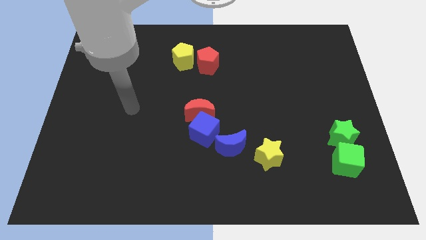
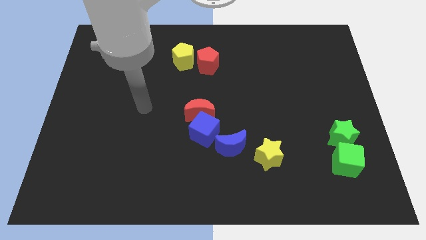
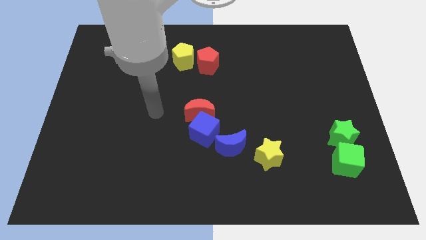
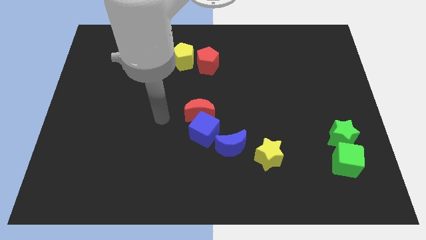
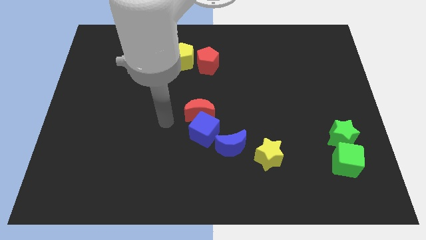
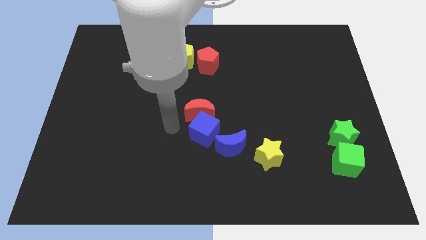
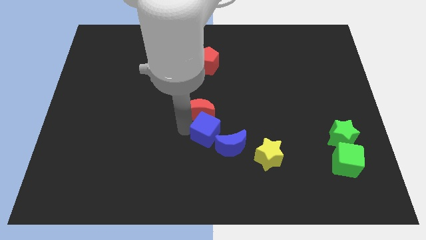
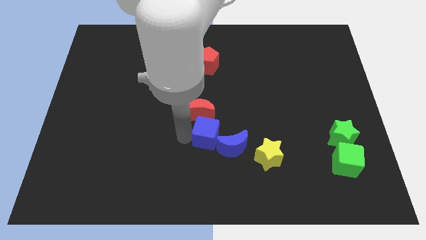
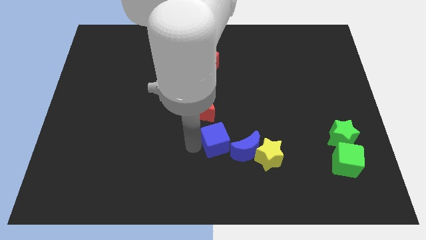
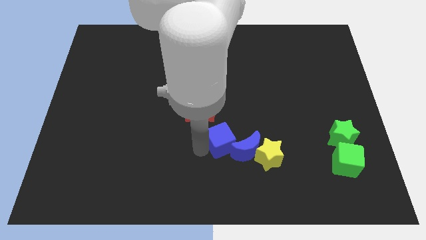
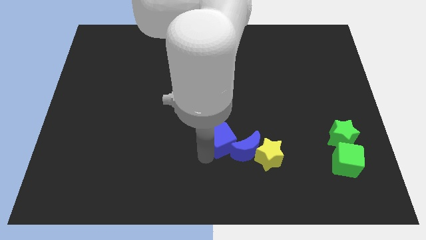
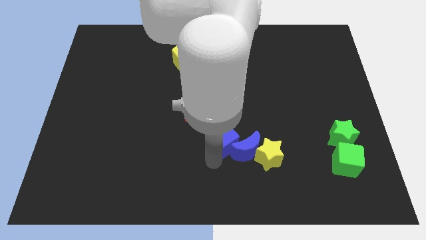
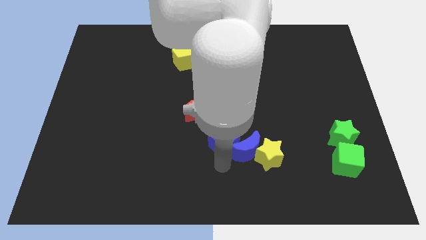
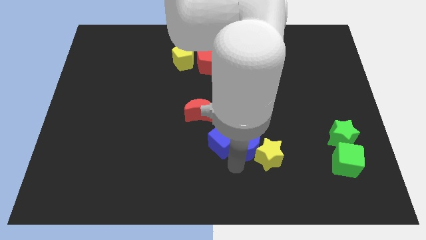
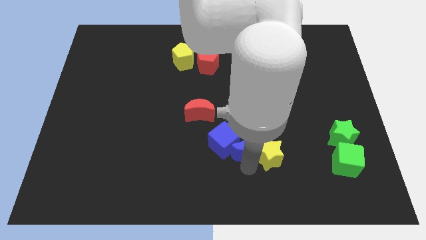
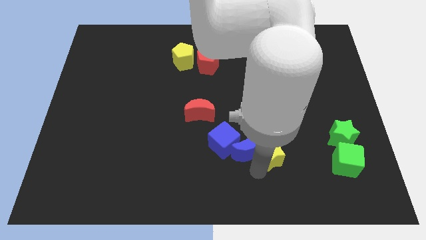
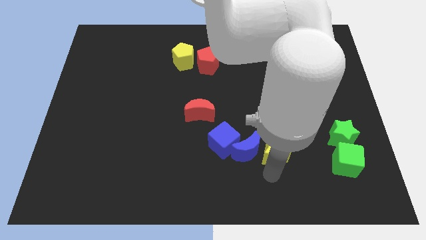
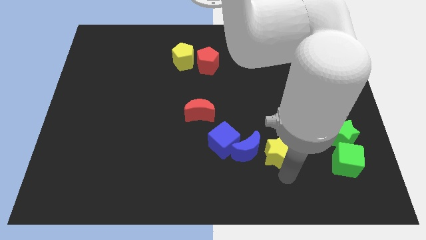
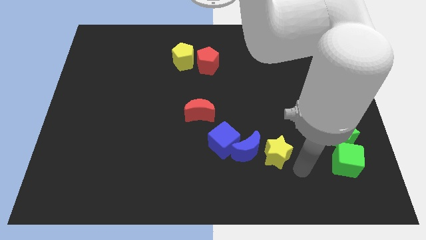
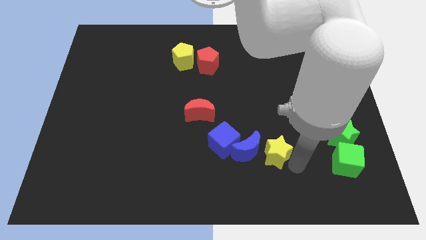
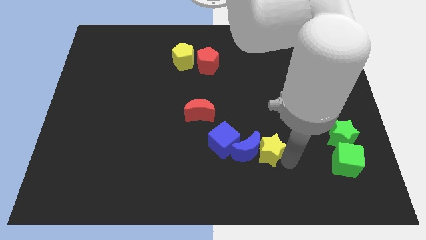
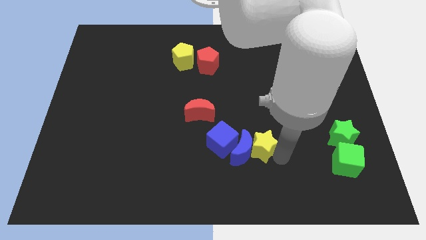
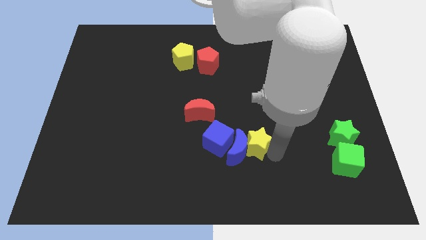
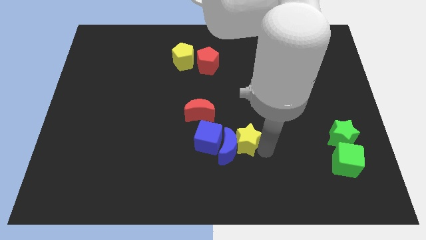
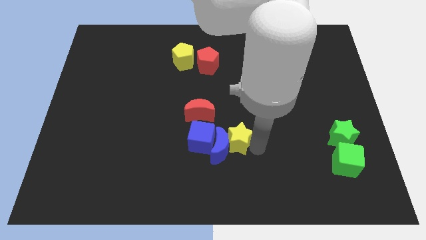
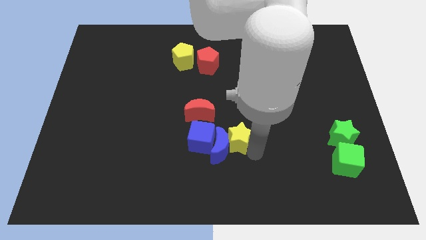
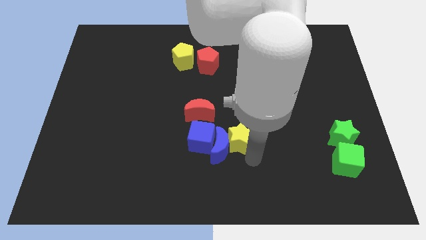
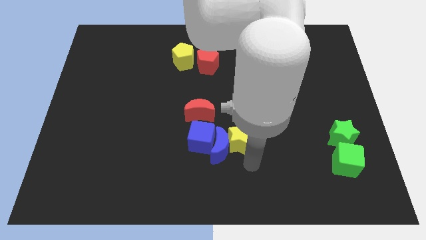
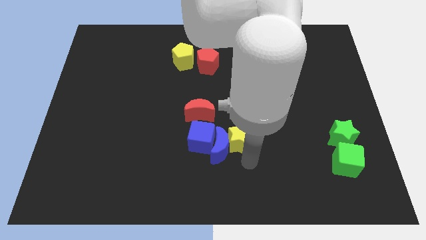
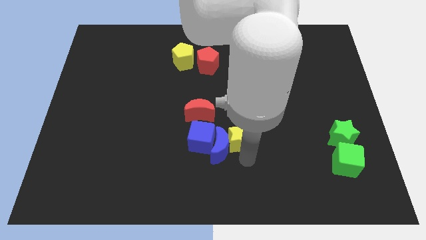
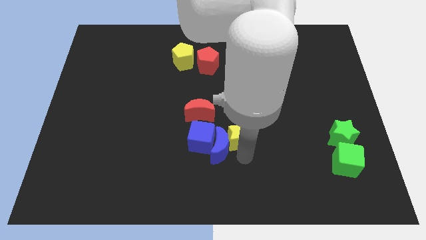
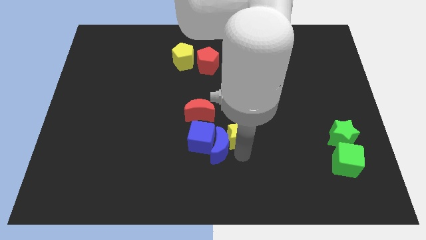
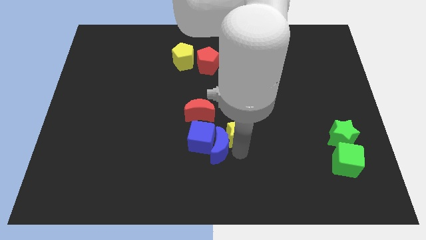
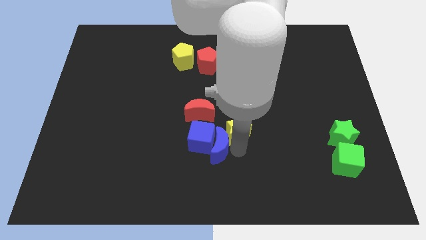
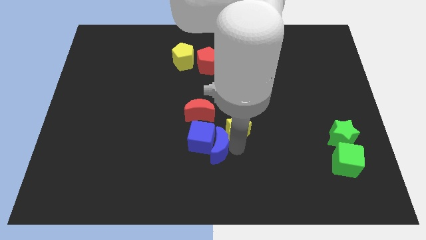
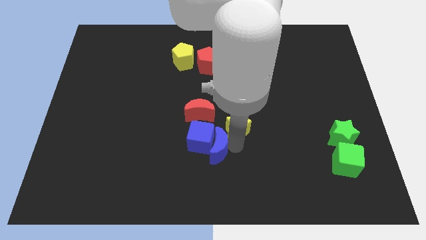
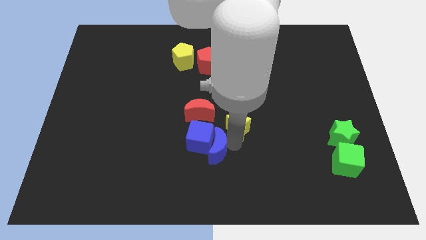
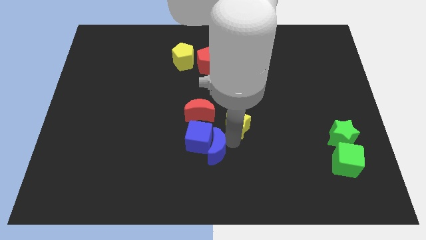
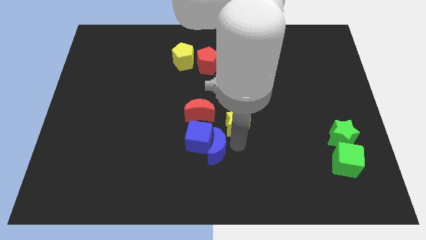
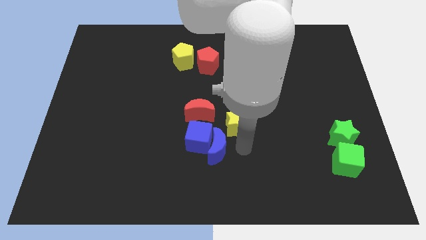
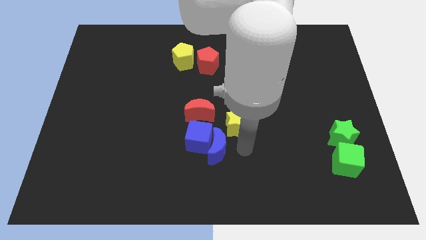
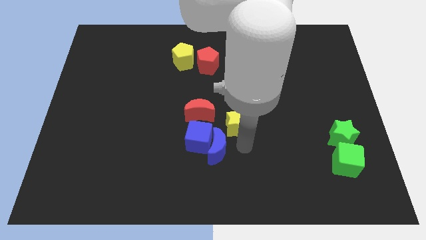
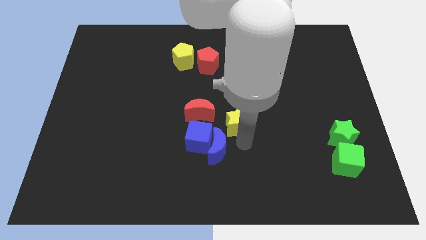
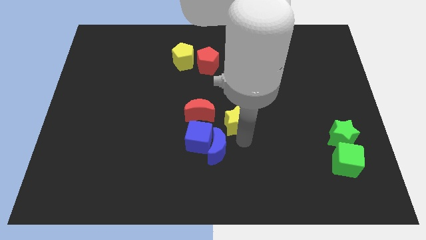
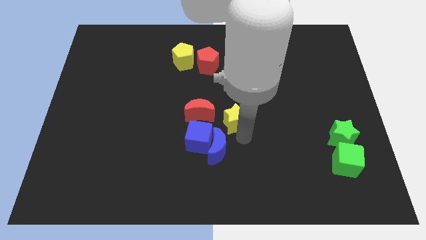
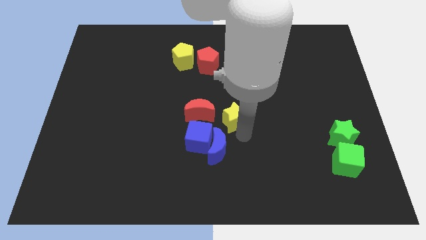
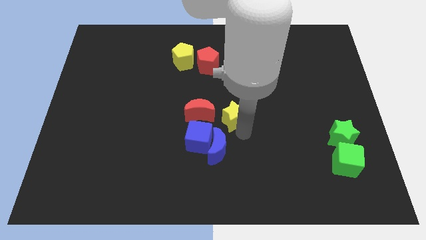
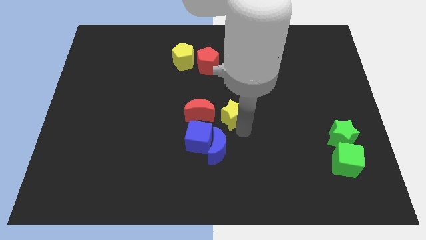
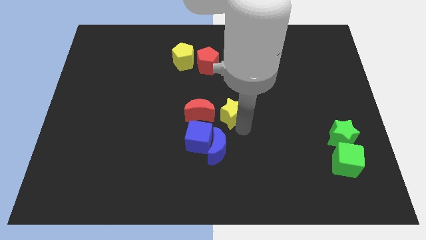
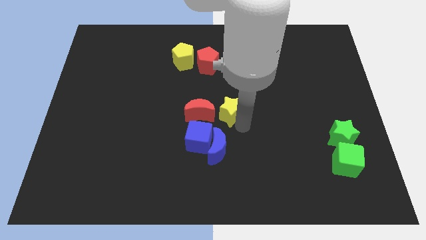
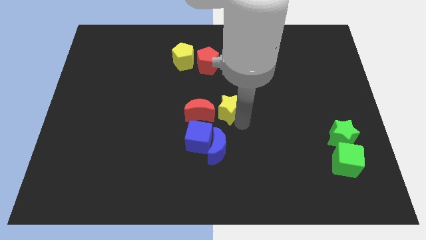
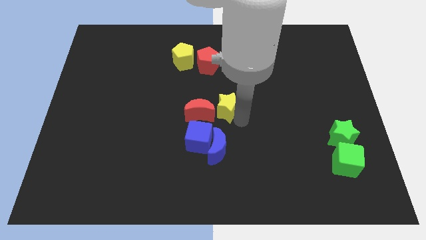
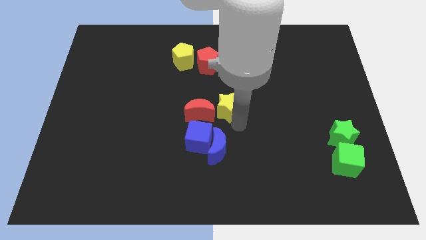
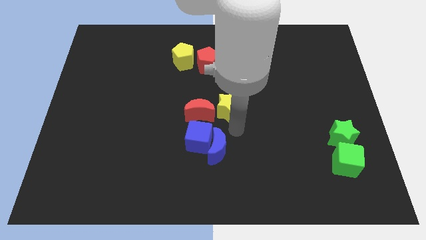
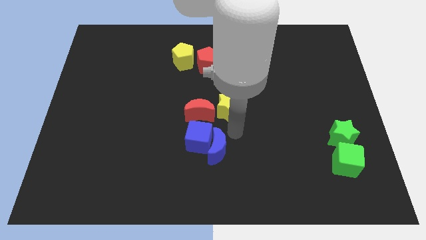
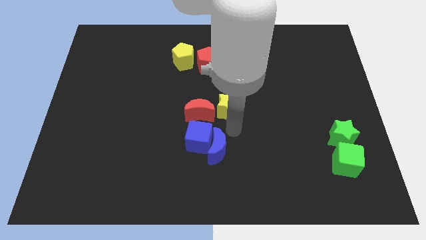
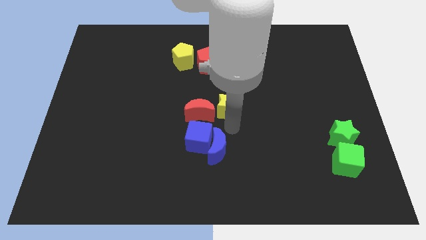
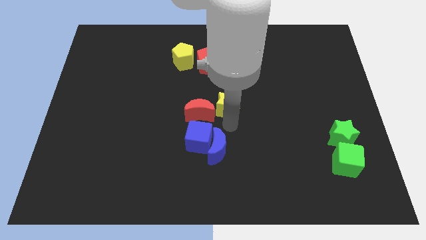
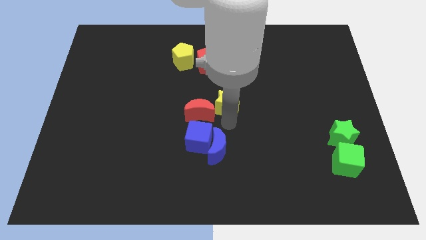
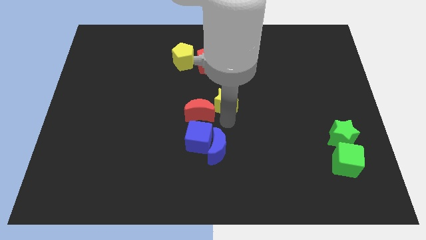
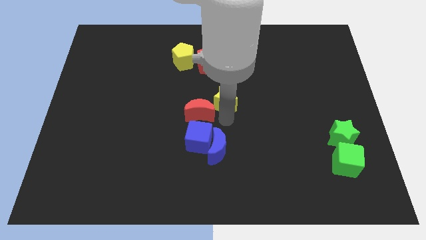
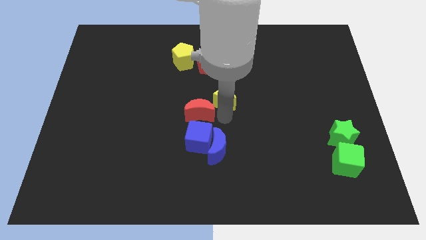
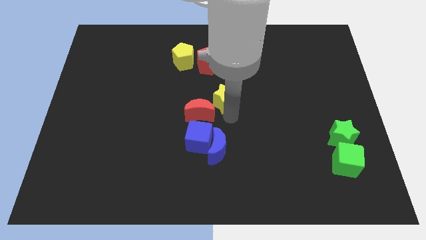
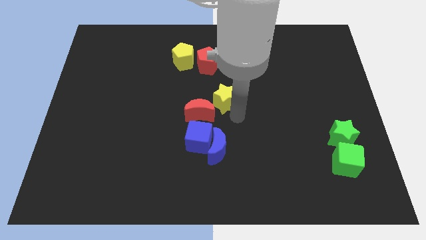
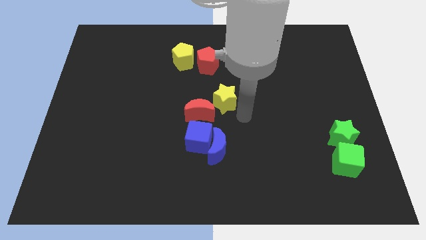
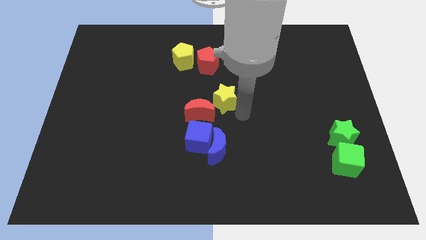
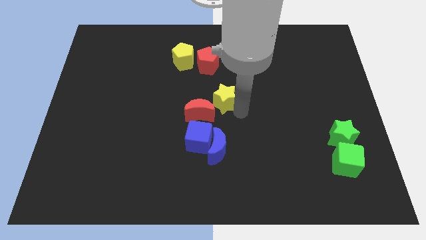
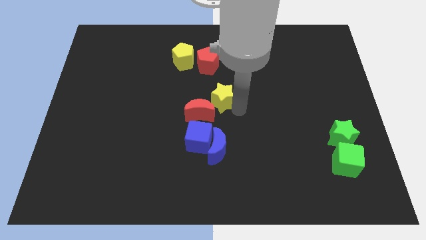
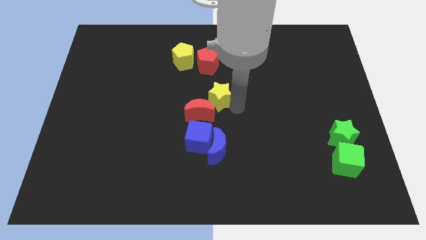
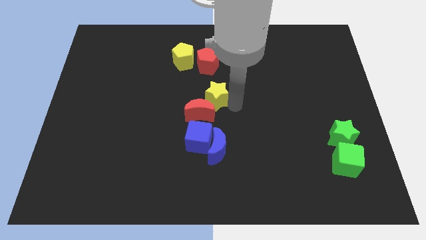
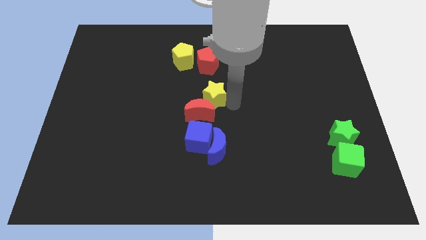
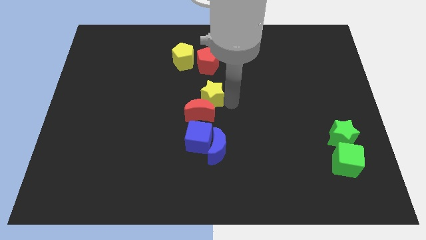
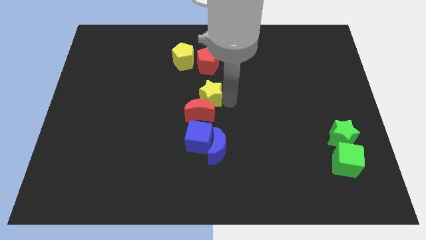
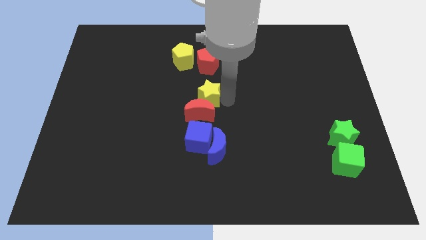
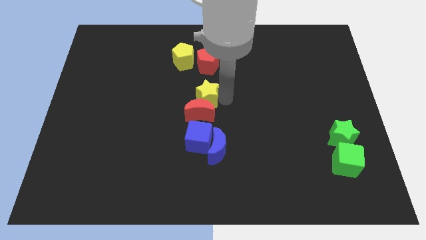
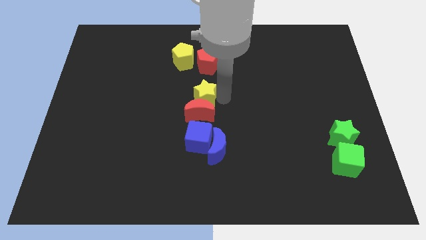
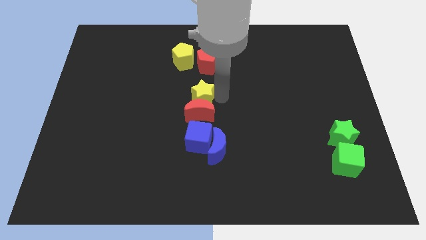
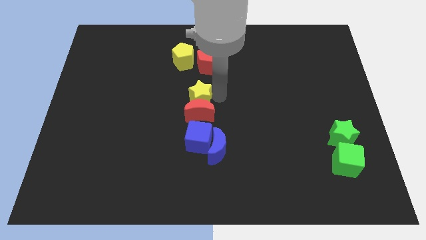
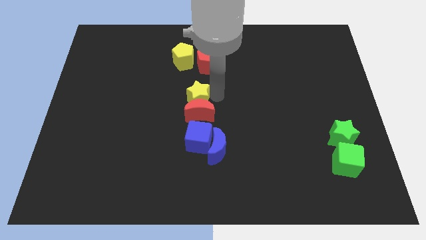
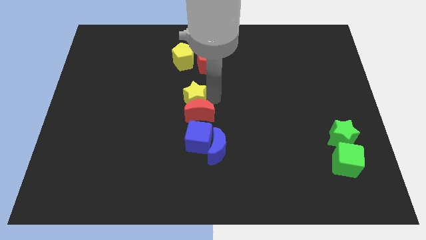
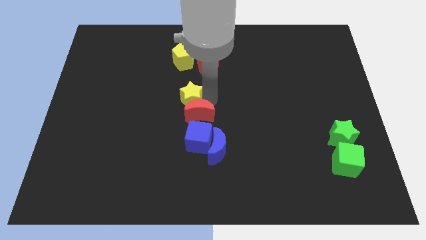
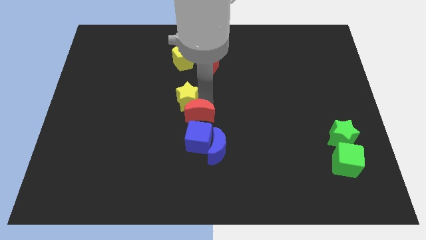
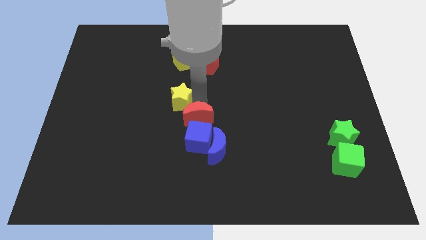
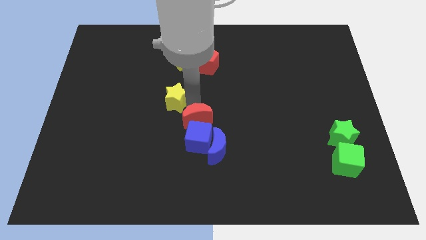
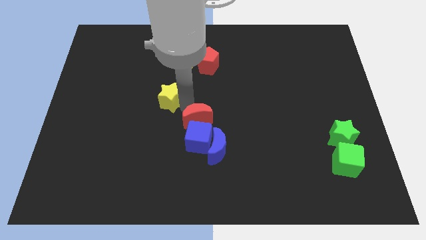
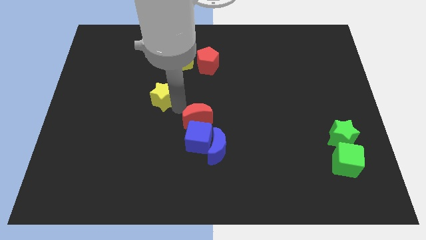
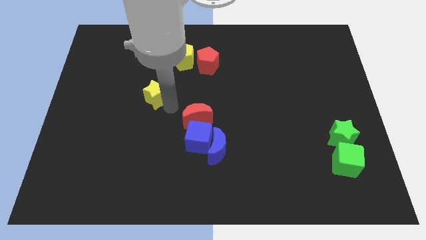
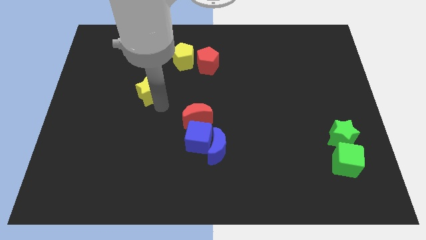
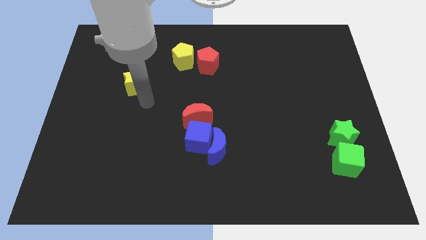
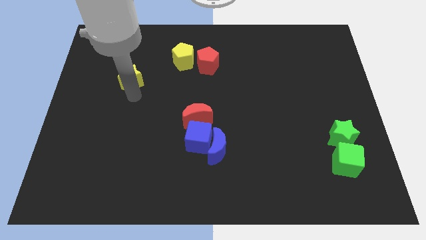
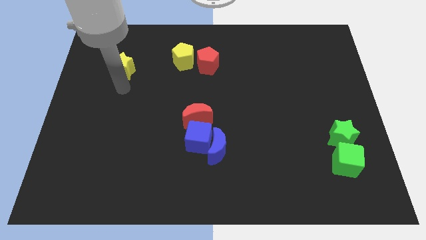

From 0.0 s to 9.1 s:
put the yellow star just left of the yellow pentagon
